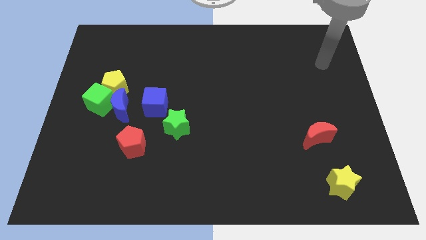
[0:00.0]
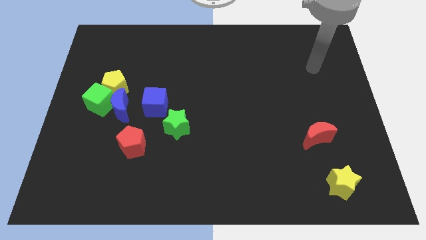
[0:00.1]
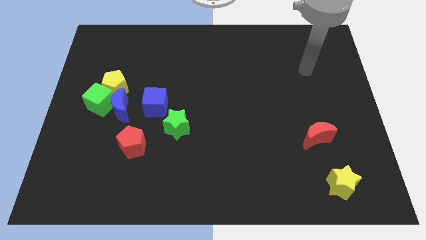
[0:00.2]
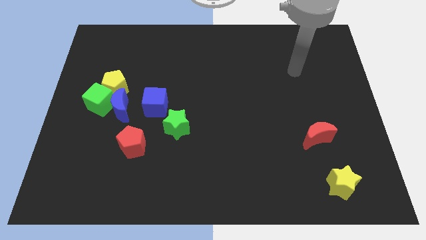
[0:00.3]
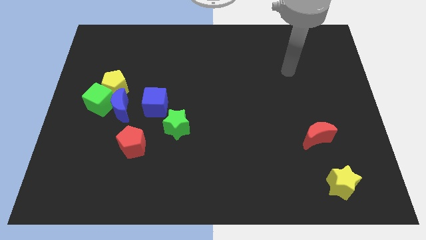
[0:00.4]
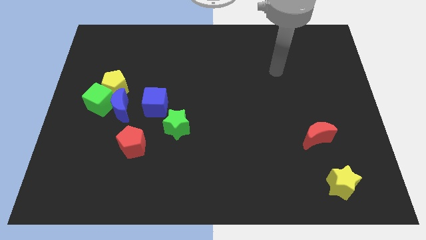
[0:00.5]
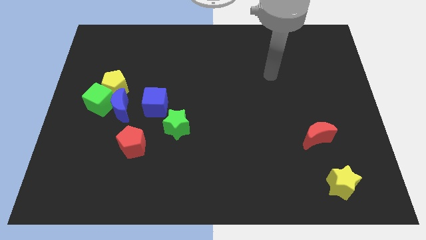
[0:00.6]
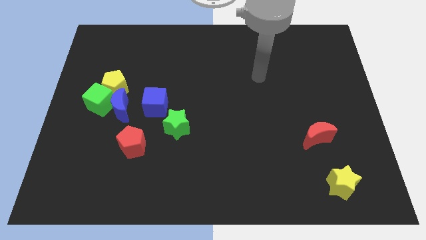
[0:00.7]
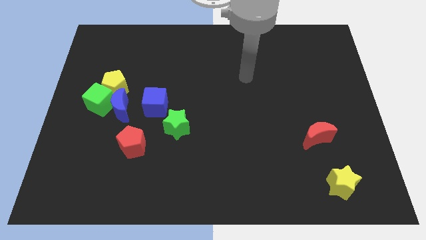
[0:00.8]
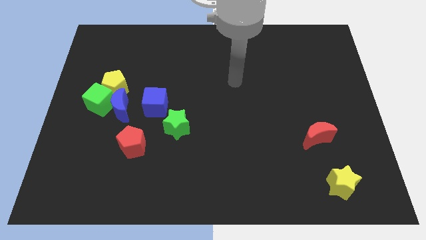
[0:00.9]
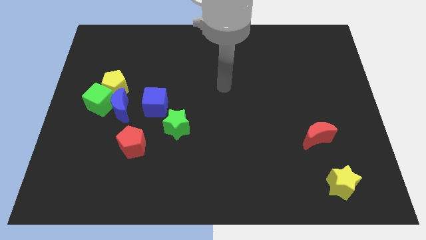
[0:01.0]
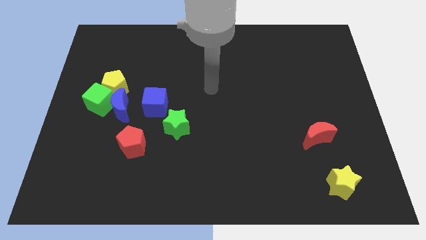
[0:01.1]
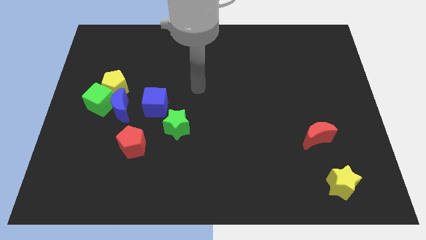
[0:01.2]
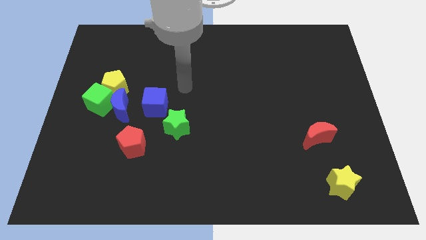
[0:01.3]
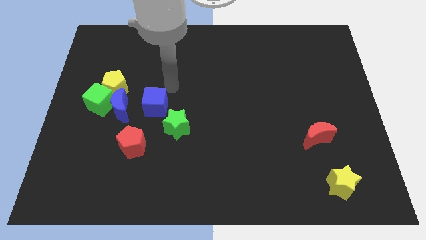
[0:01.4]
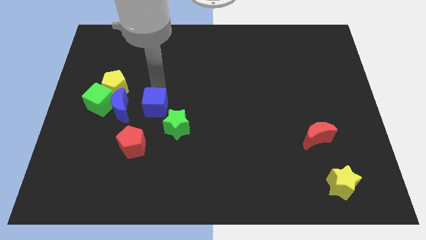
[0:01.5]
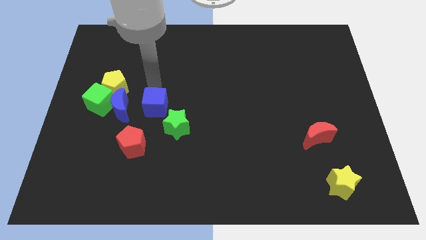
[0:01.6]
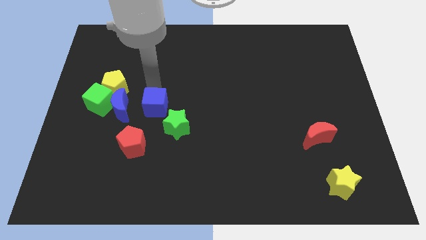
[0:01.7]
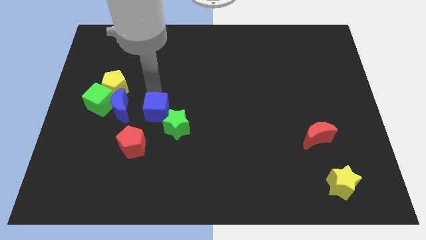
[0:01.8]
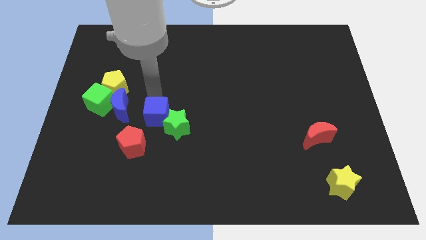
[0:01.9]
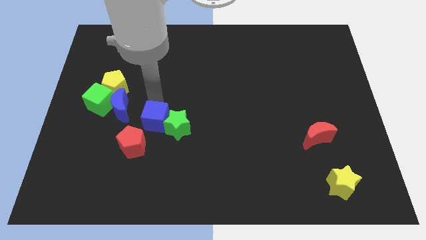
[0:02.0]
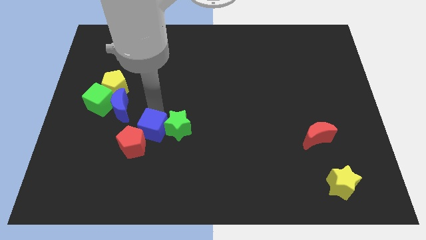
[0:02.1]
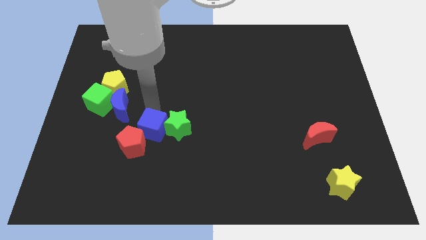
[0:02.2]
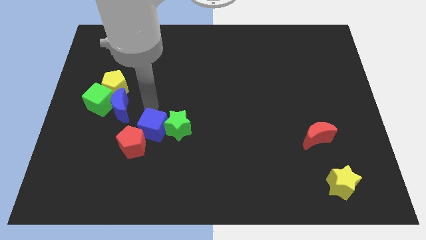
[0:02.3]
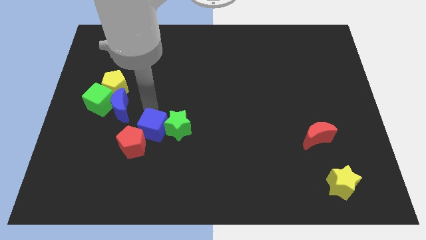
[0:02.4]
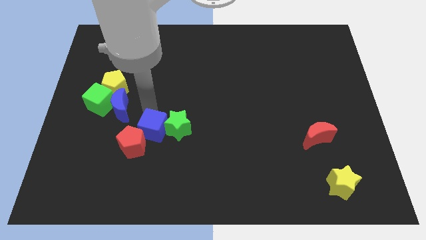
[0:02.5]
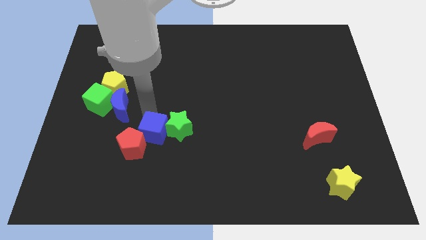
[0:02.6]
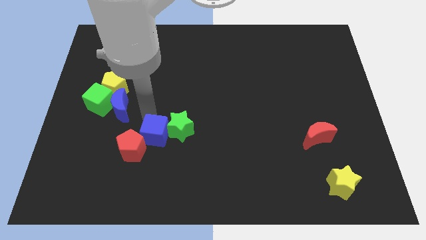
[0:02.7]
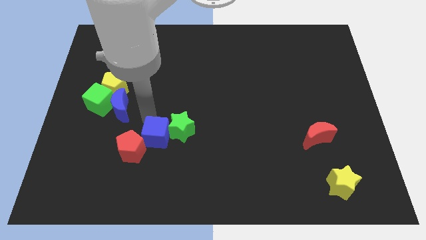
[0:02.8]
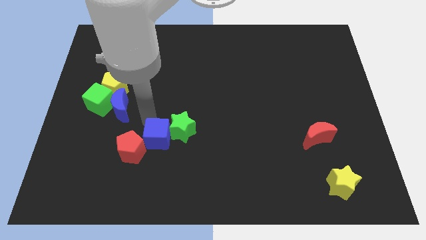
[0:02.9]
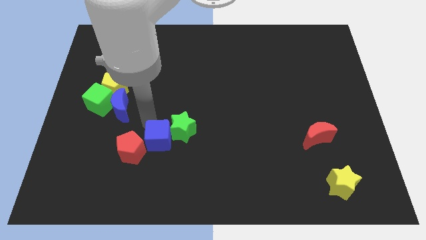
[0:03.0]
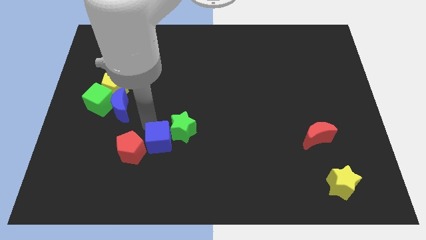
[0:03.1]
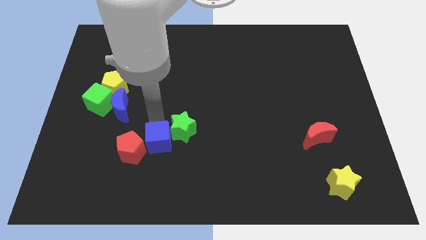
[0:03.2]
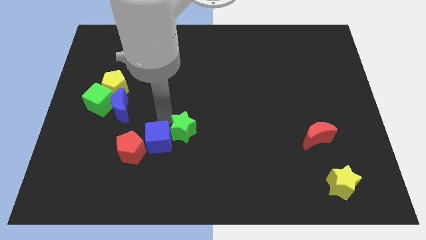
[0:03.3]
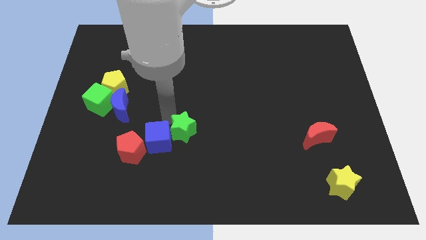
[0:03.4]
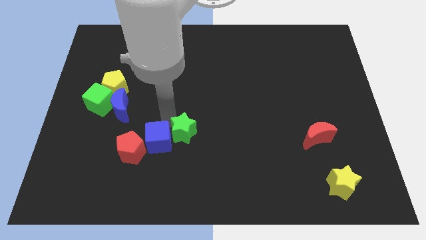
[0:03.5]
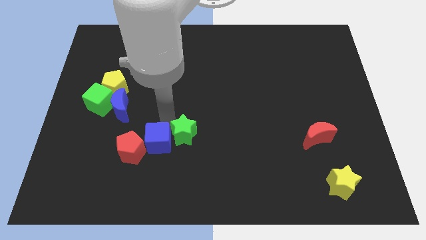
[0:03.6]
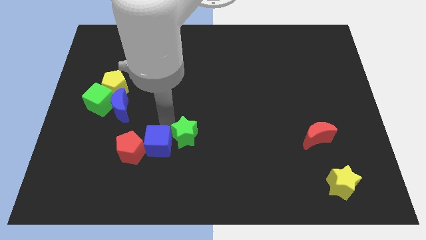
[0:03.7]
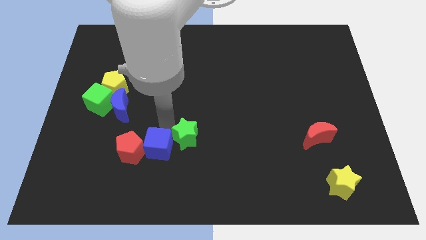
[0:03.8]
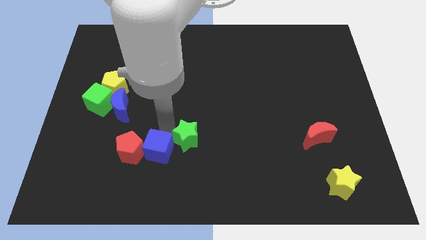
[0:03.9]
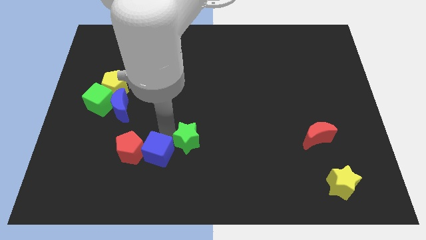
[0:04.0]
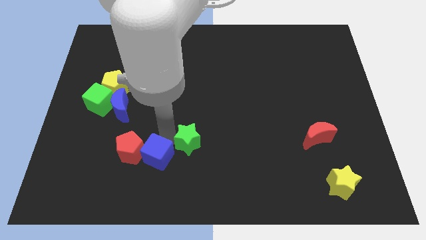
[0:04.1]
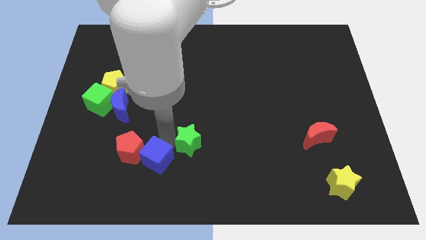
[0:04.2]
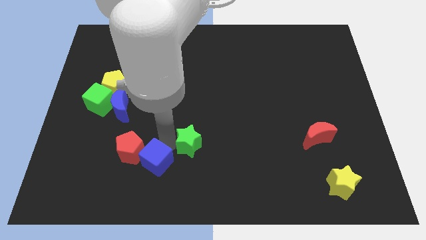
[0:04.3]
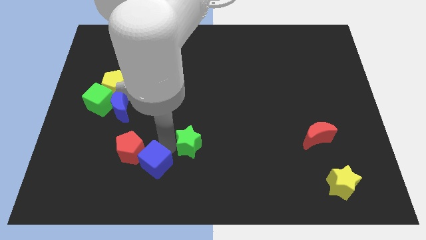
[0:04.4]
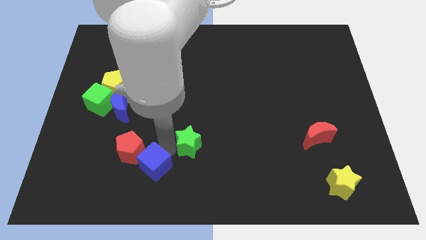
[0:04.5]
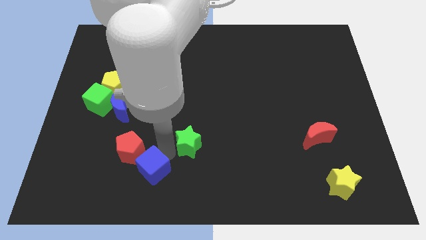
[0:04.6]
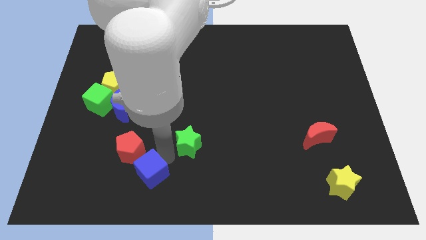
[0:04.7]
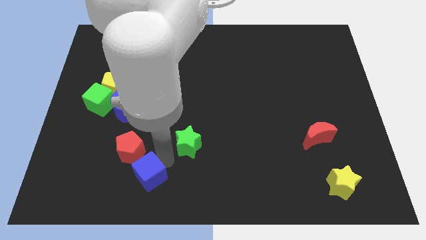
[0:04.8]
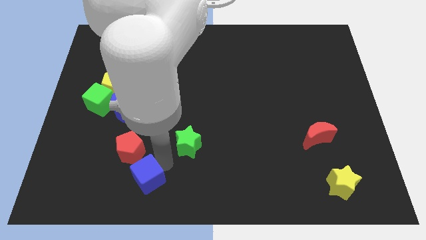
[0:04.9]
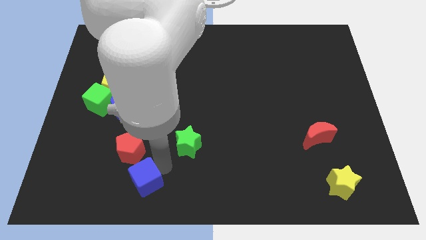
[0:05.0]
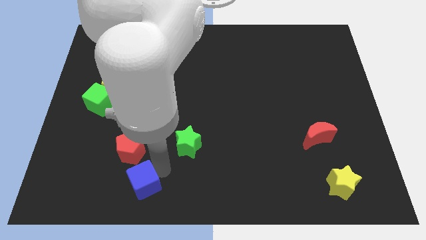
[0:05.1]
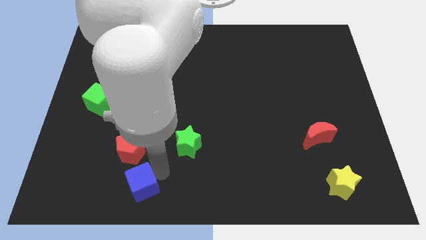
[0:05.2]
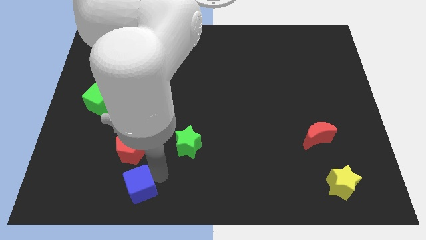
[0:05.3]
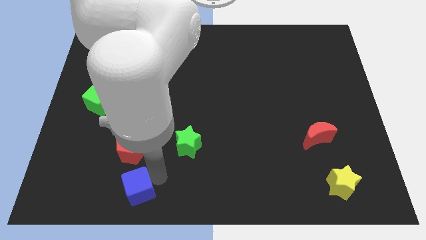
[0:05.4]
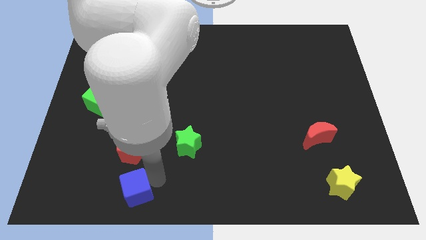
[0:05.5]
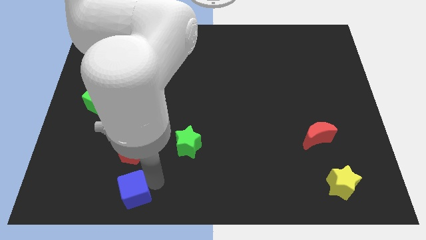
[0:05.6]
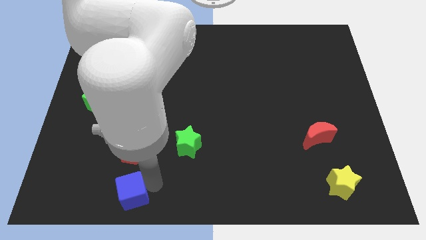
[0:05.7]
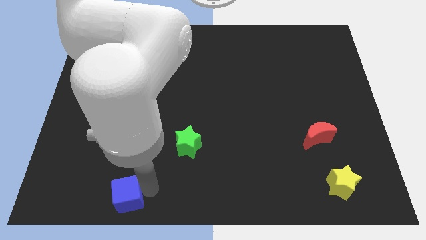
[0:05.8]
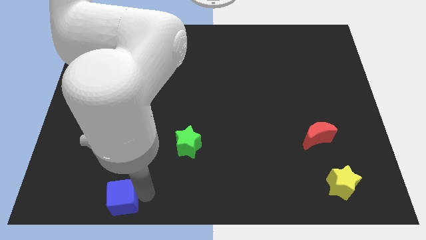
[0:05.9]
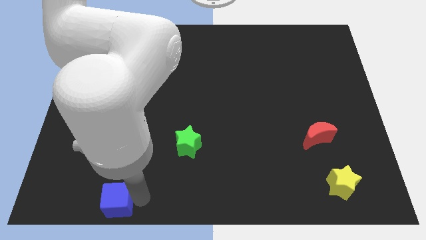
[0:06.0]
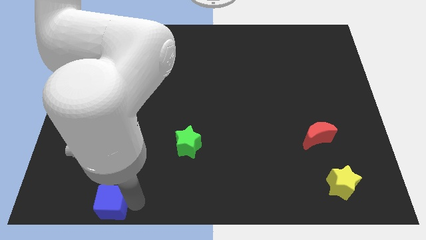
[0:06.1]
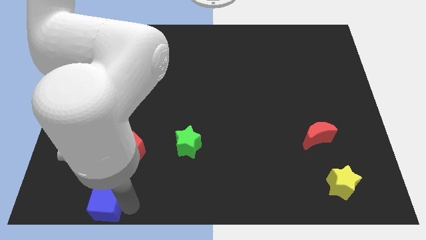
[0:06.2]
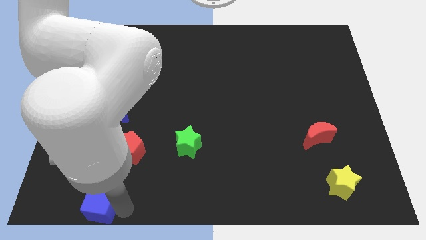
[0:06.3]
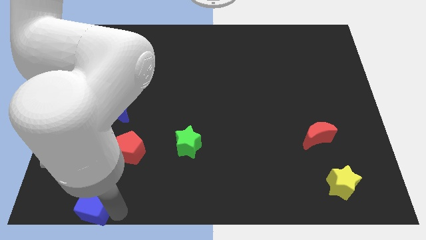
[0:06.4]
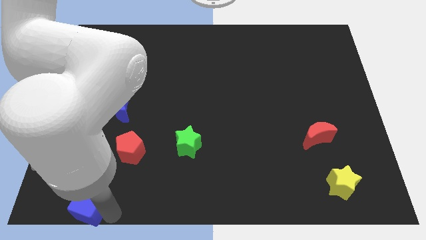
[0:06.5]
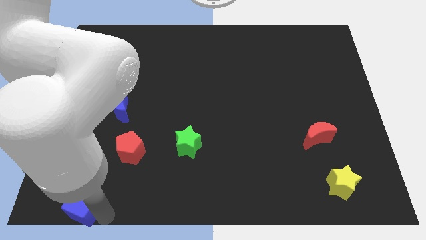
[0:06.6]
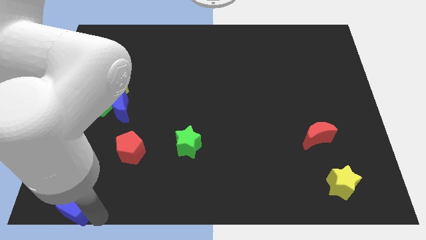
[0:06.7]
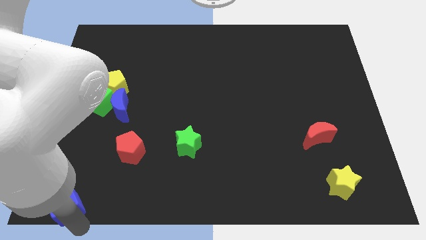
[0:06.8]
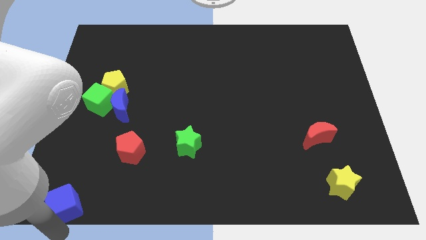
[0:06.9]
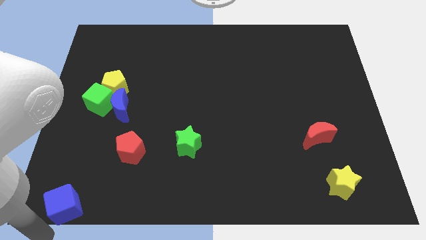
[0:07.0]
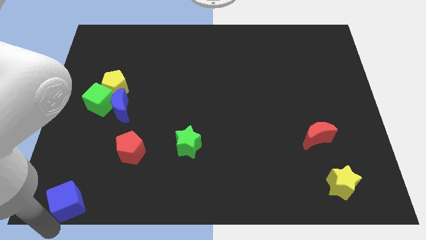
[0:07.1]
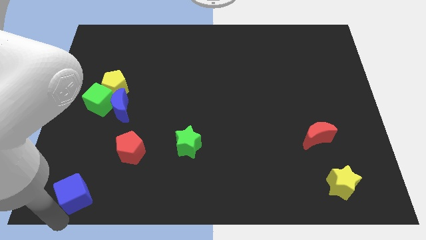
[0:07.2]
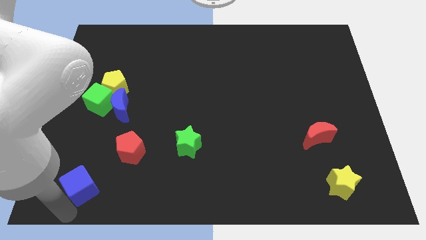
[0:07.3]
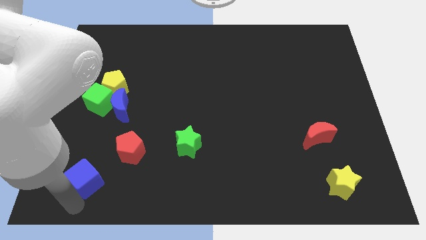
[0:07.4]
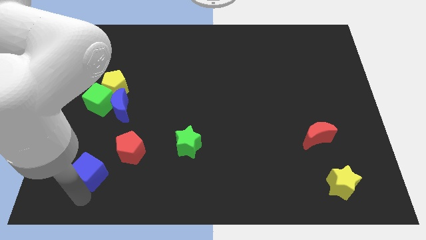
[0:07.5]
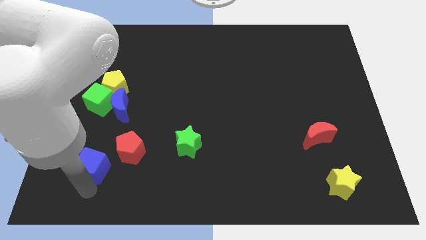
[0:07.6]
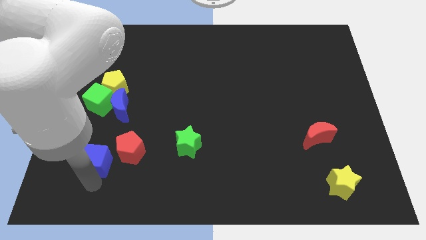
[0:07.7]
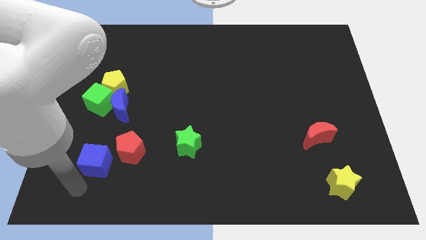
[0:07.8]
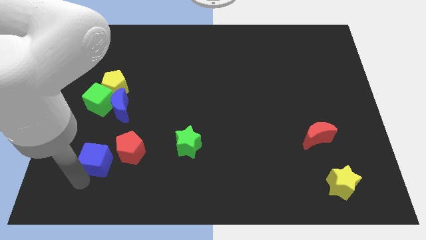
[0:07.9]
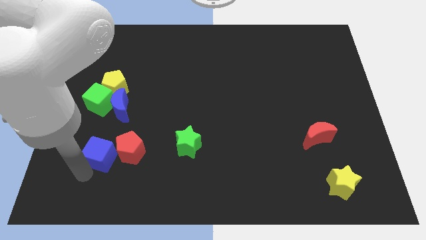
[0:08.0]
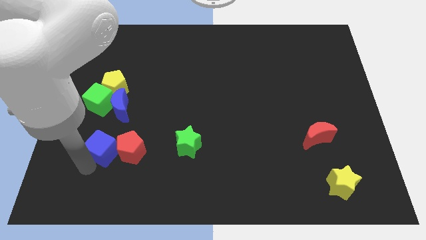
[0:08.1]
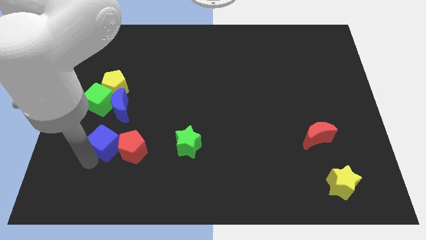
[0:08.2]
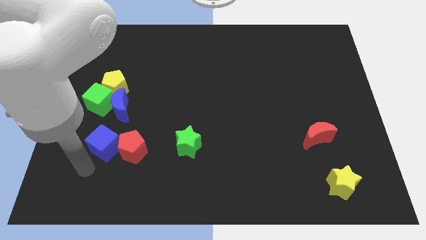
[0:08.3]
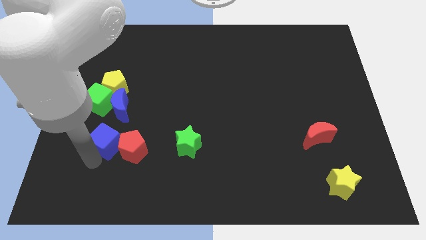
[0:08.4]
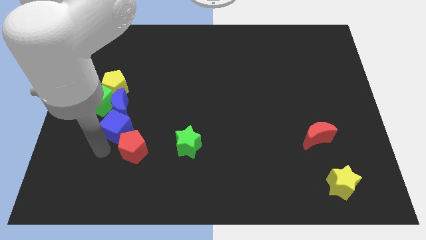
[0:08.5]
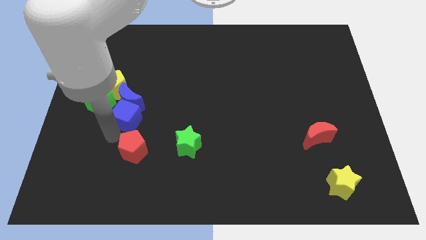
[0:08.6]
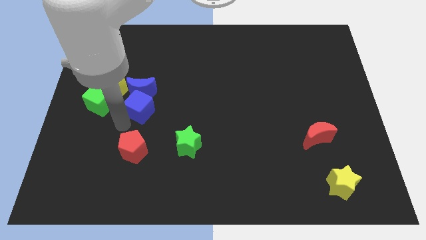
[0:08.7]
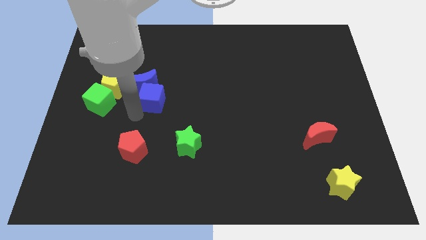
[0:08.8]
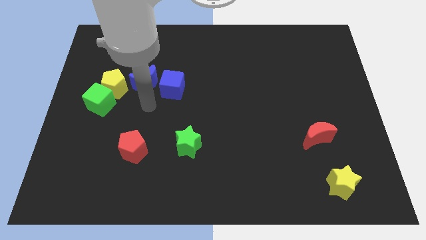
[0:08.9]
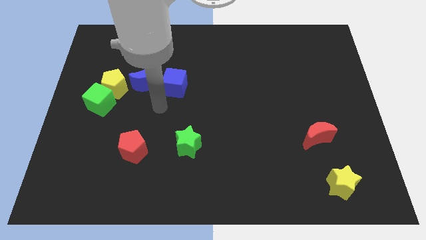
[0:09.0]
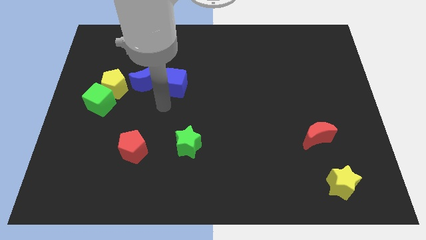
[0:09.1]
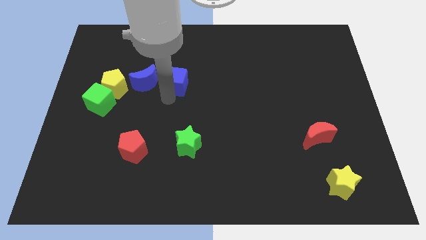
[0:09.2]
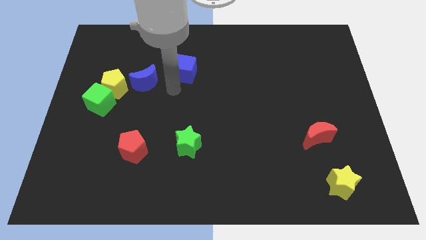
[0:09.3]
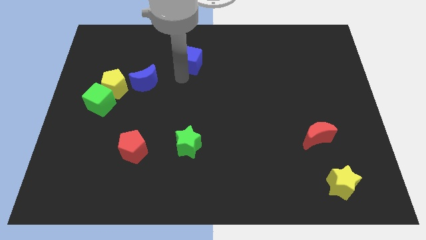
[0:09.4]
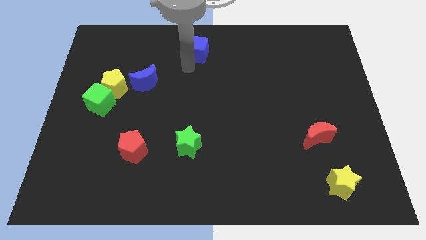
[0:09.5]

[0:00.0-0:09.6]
put the blue cube to the top
